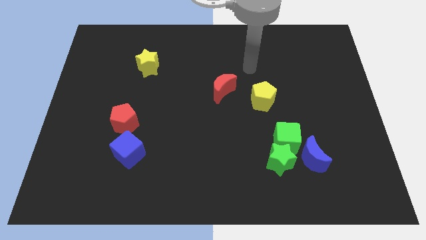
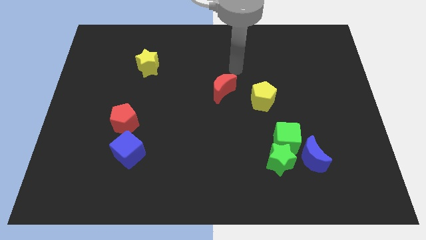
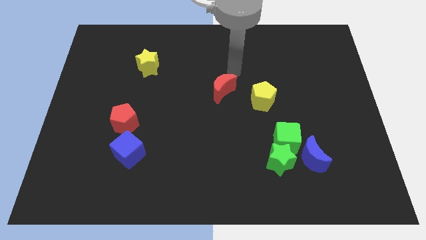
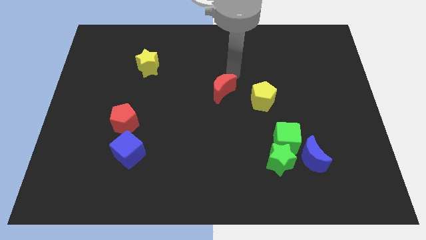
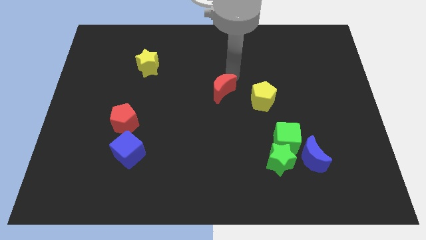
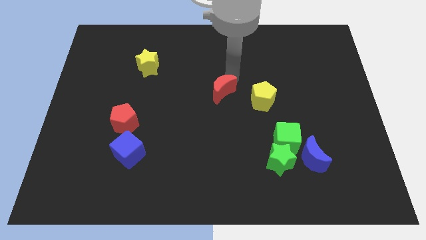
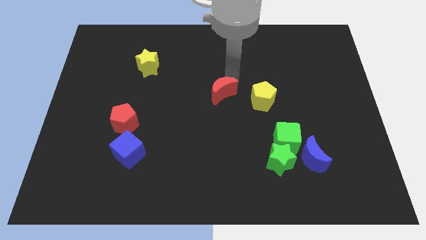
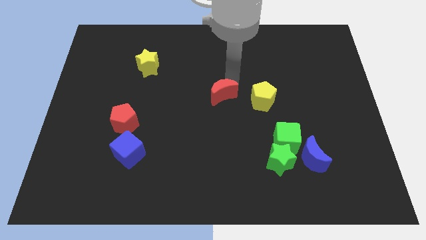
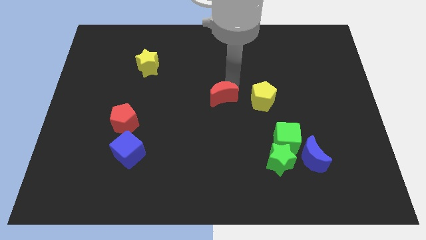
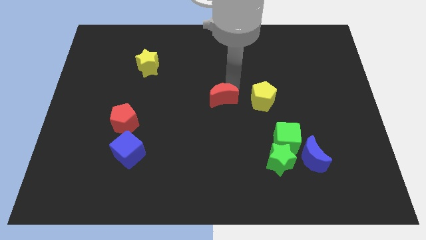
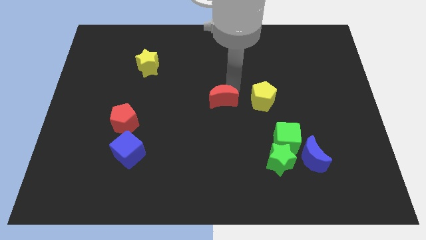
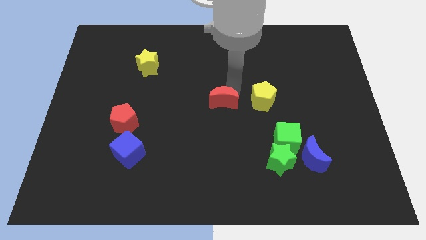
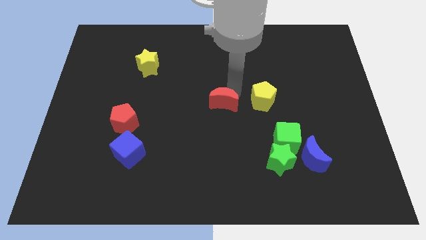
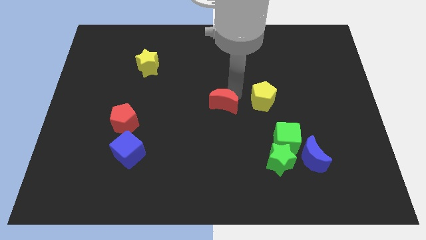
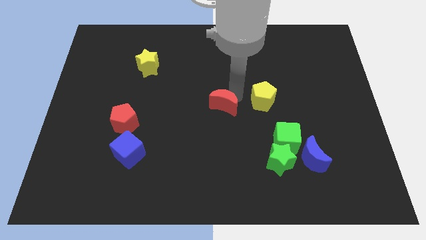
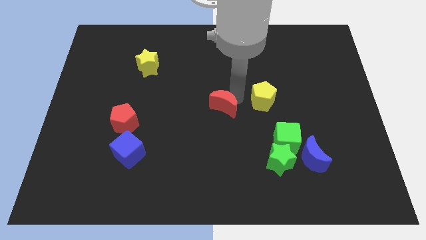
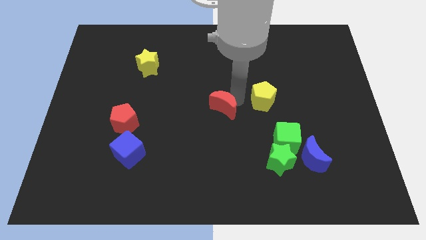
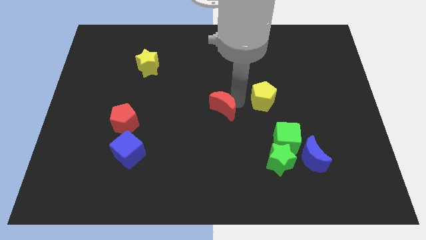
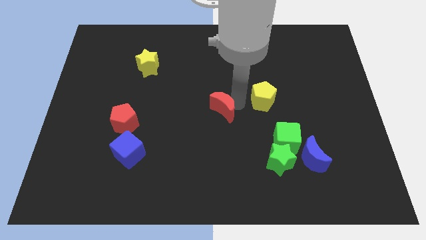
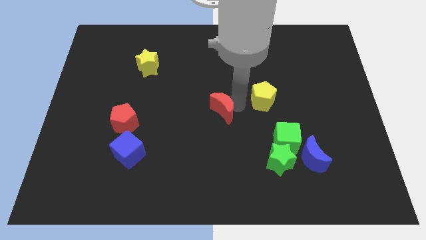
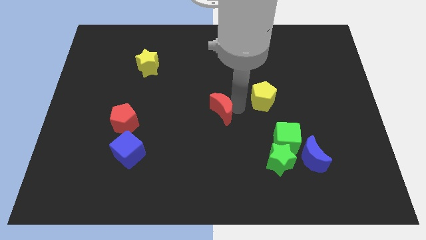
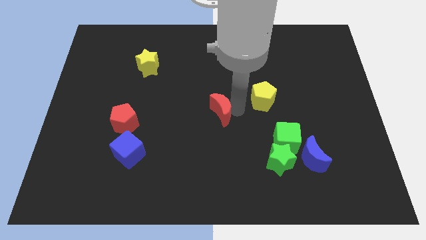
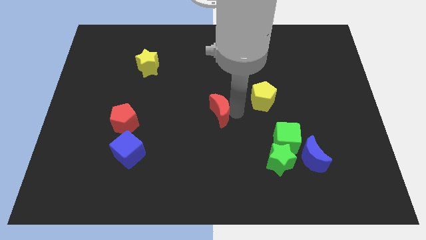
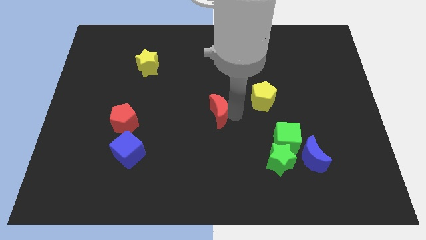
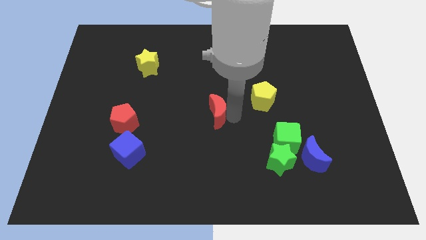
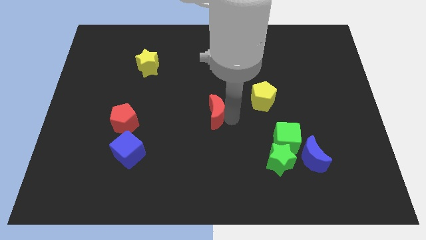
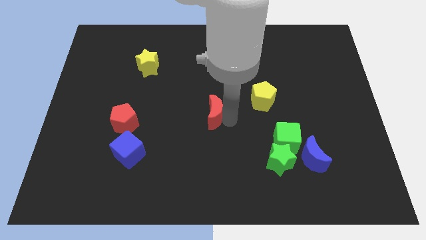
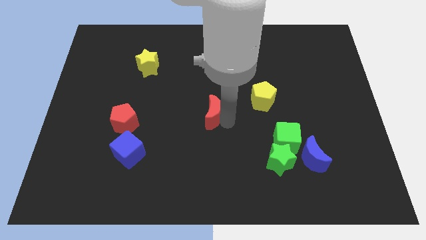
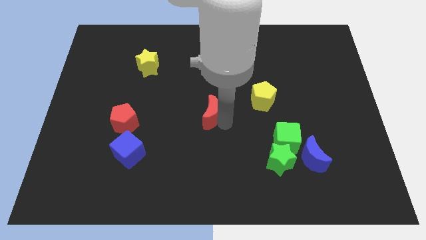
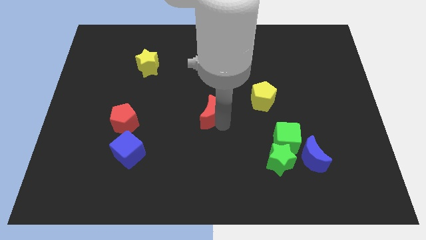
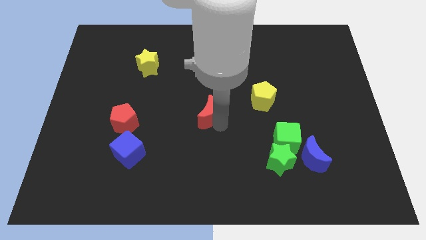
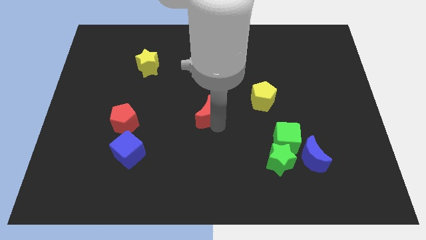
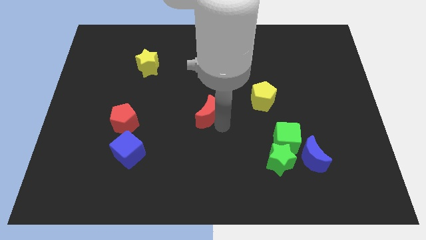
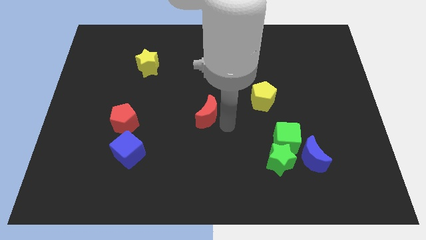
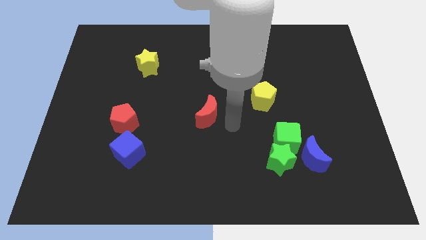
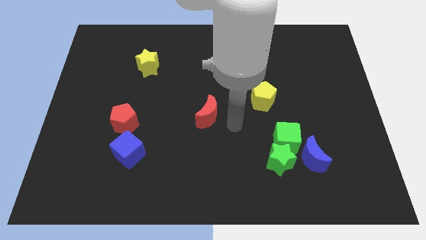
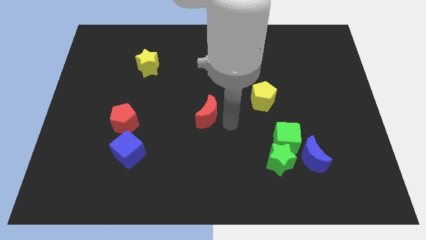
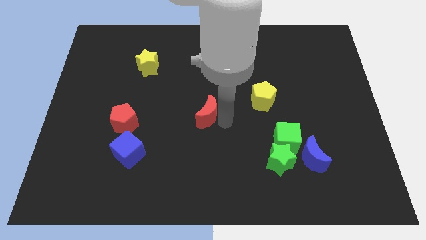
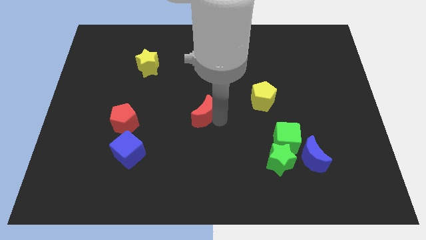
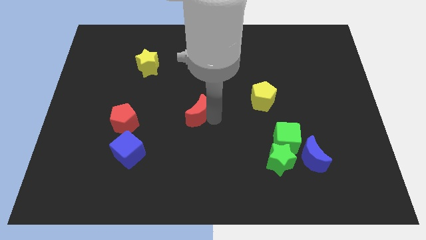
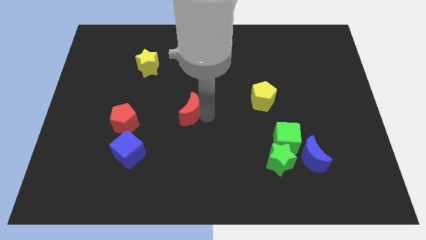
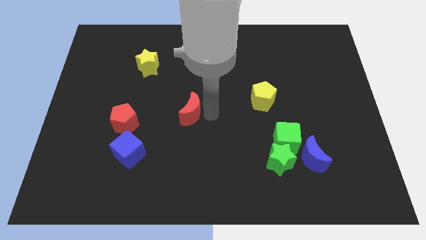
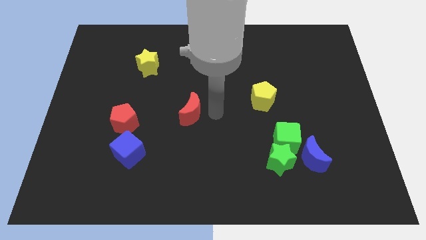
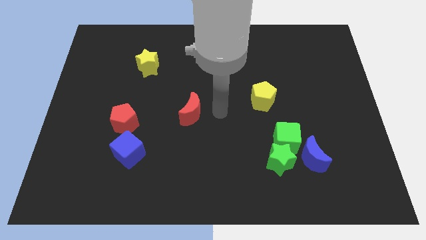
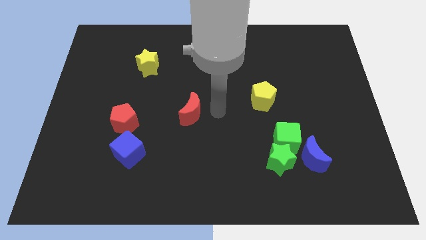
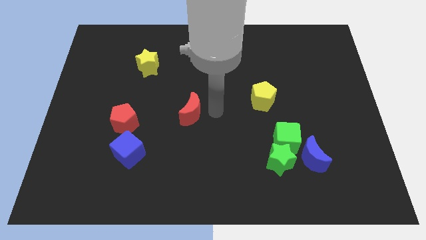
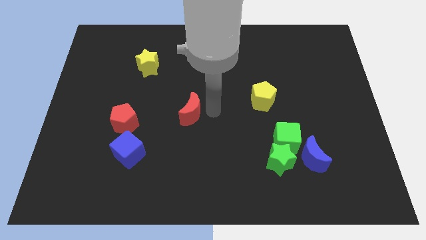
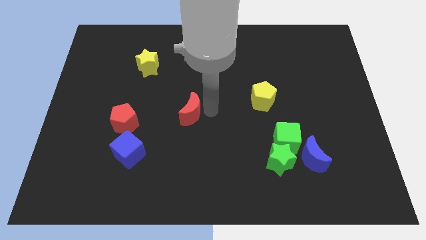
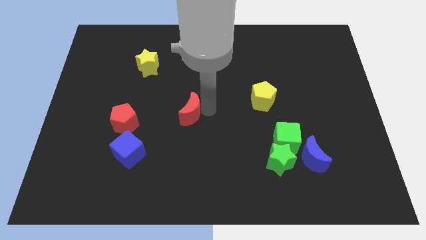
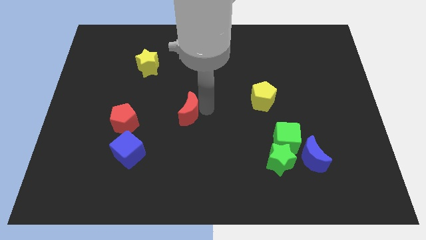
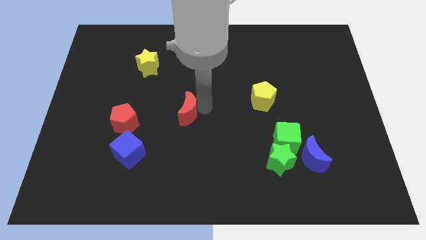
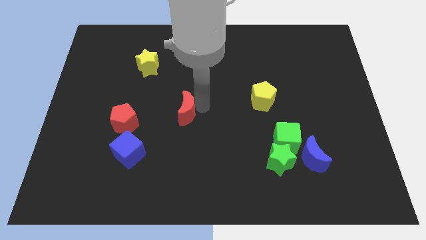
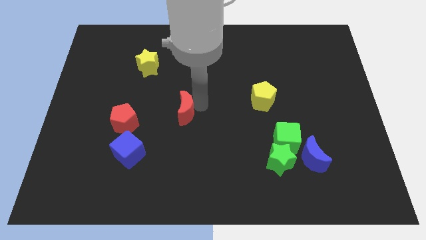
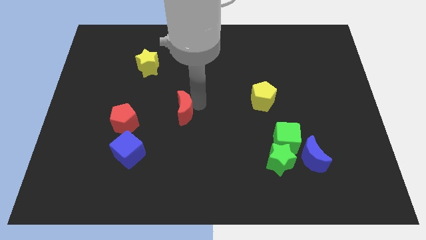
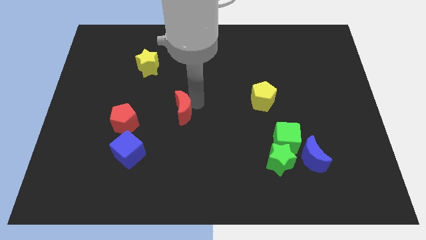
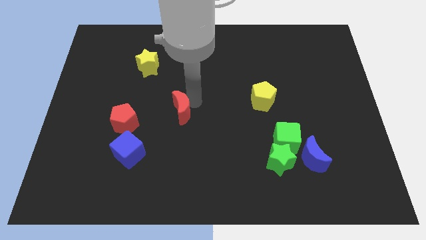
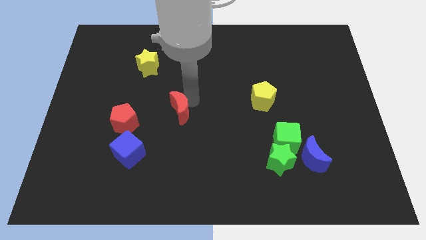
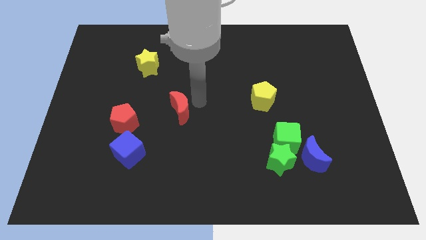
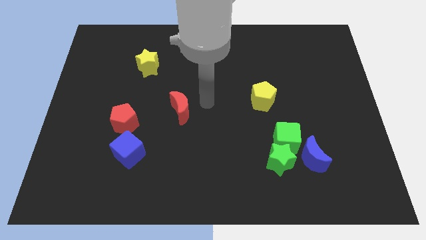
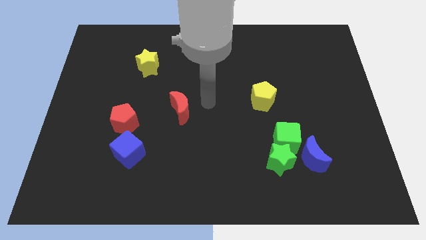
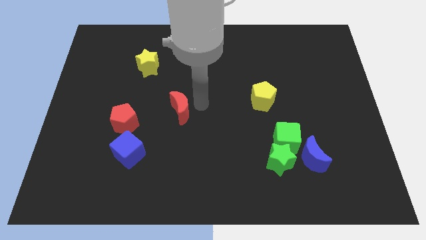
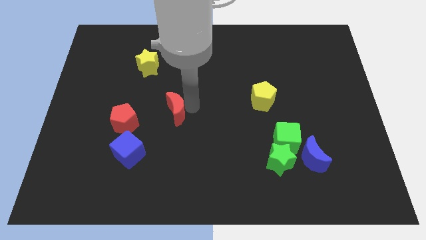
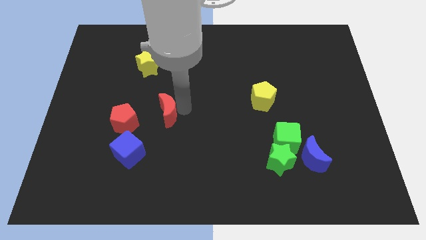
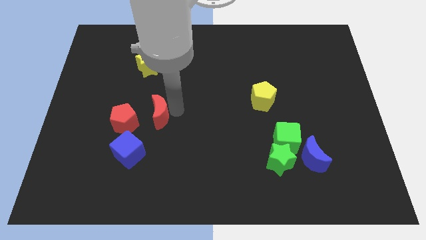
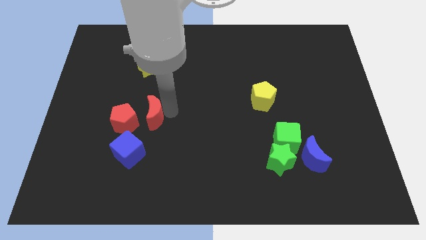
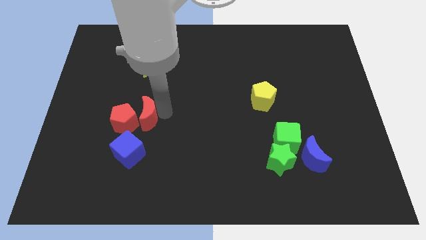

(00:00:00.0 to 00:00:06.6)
push the red moon to the red pentagon
